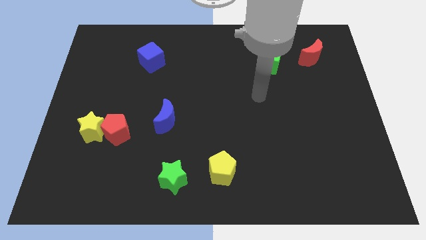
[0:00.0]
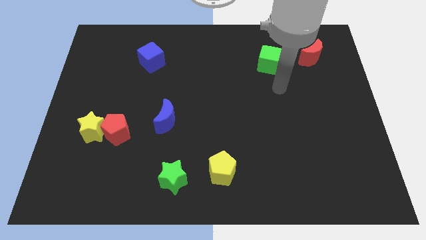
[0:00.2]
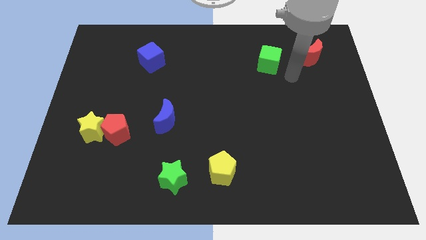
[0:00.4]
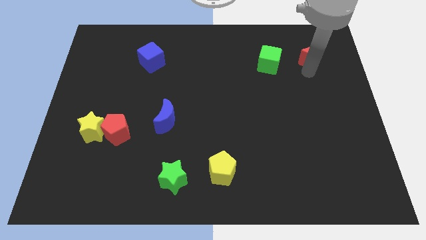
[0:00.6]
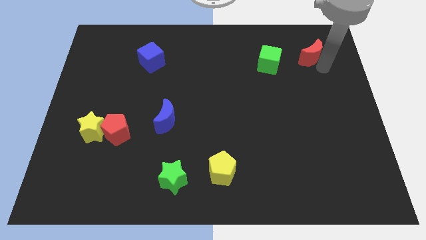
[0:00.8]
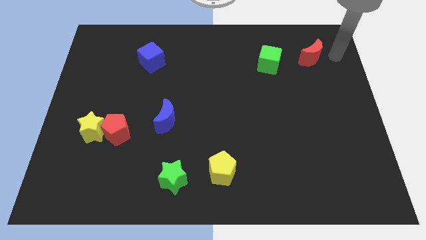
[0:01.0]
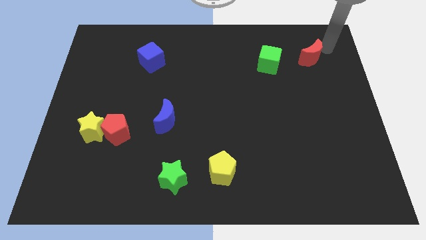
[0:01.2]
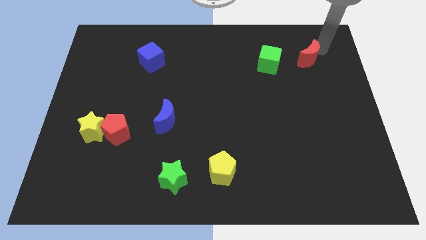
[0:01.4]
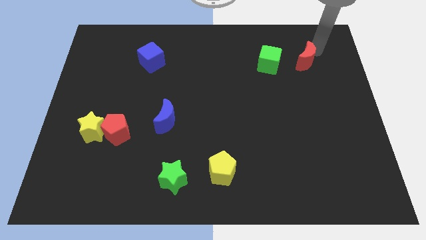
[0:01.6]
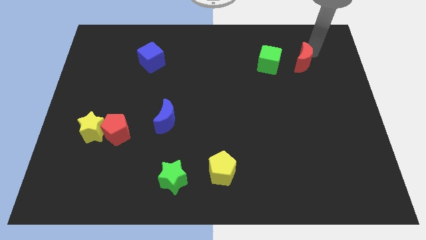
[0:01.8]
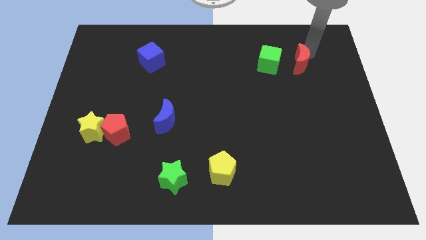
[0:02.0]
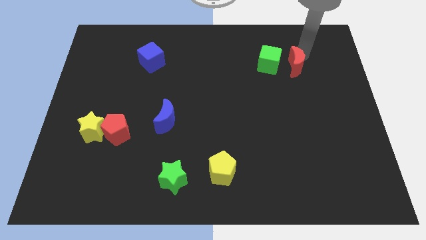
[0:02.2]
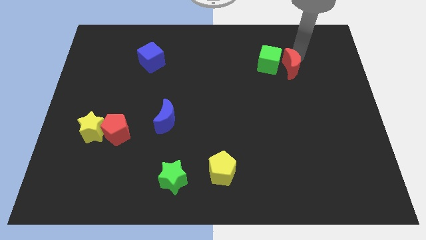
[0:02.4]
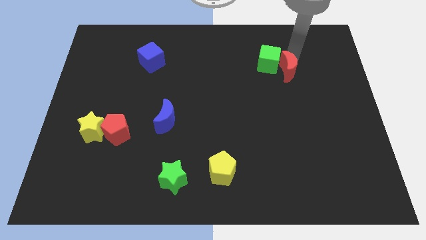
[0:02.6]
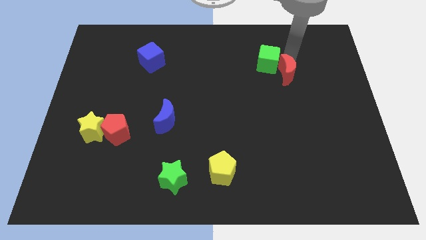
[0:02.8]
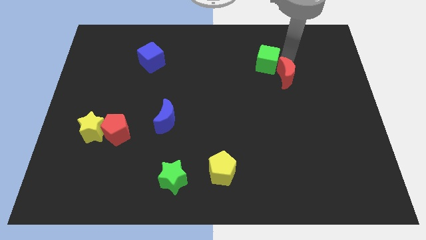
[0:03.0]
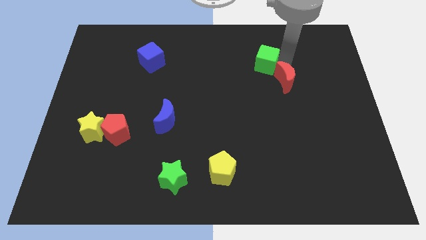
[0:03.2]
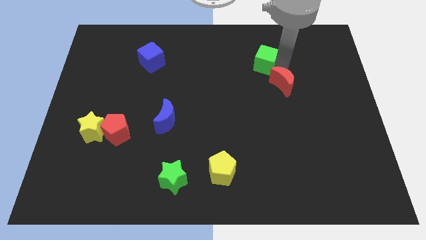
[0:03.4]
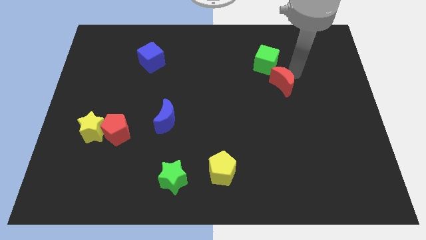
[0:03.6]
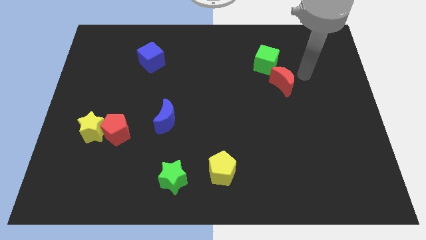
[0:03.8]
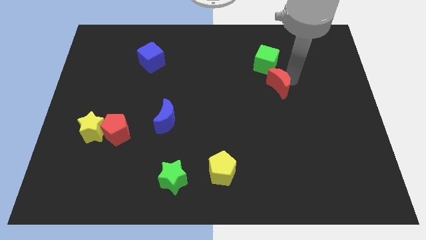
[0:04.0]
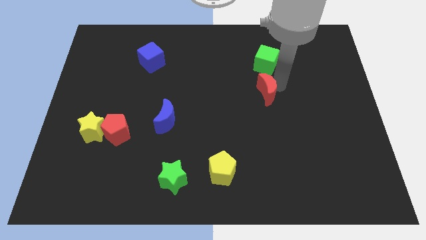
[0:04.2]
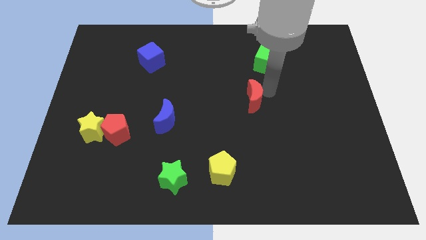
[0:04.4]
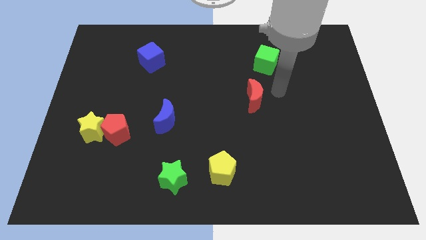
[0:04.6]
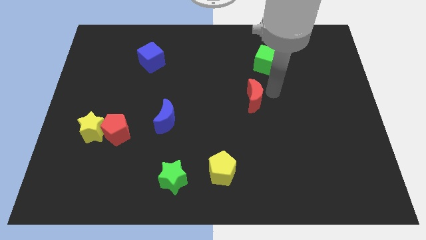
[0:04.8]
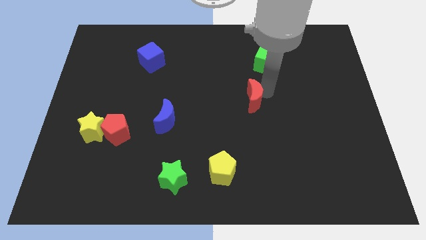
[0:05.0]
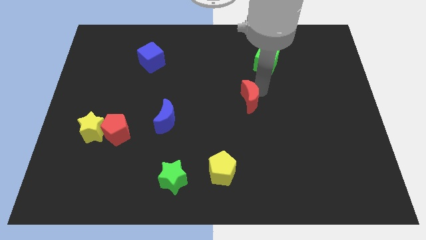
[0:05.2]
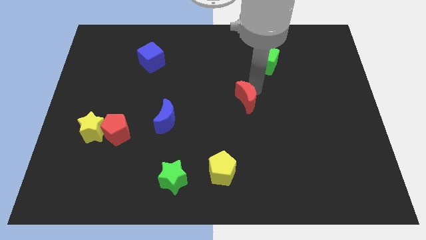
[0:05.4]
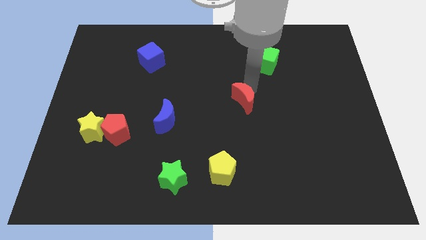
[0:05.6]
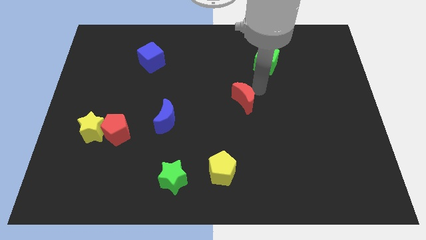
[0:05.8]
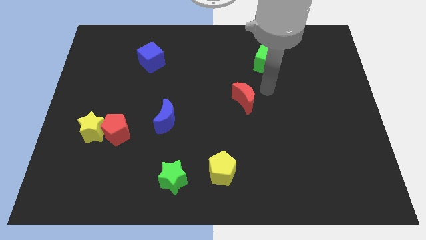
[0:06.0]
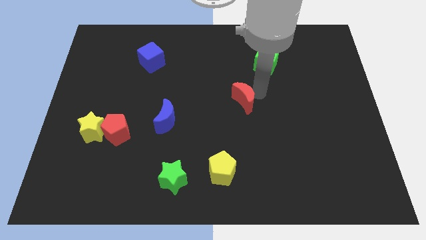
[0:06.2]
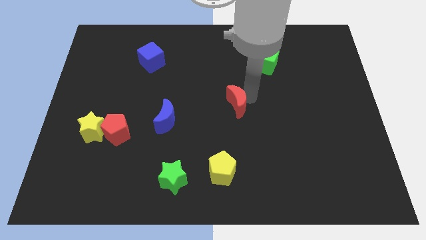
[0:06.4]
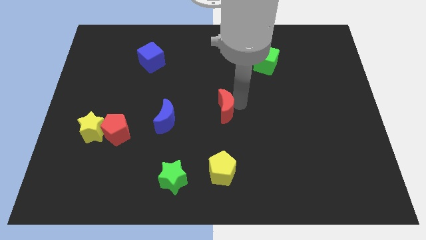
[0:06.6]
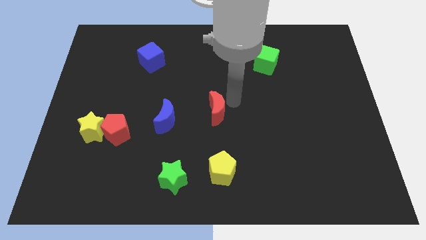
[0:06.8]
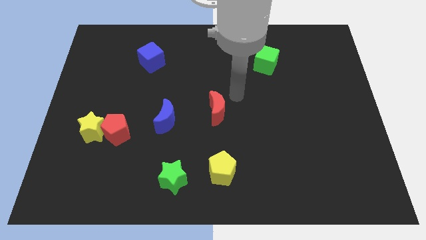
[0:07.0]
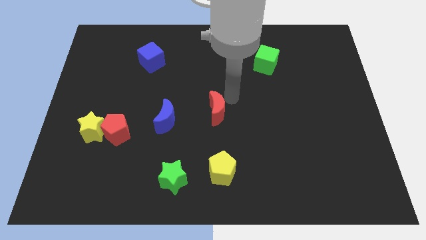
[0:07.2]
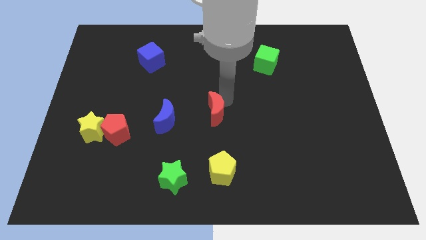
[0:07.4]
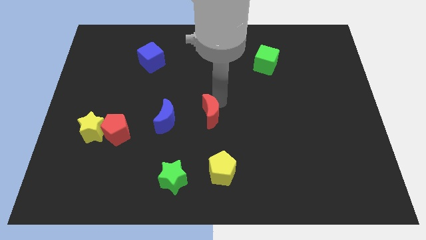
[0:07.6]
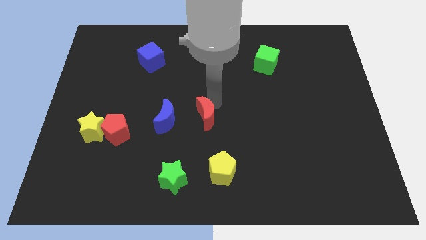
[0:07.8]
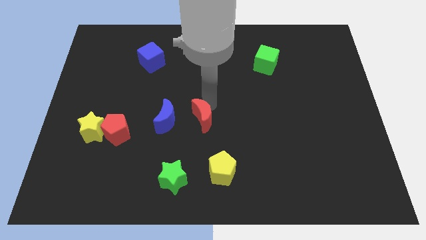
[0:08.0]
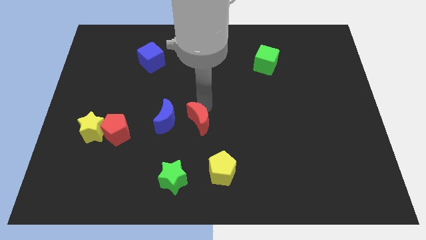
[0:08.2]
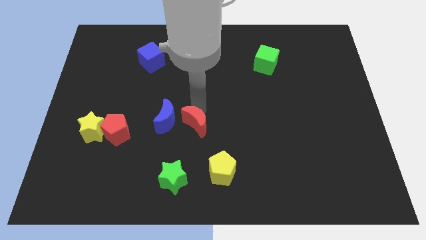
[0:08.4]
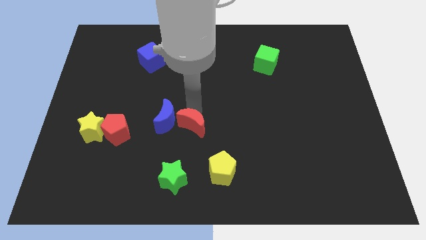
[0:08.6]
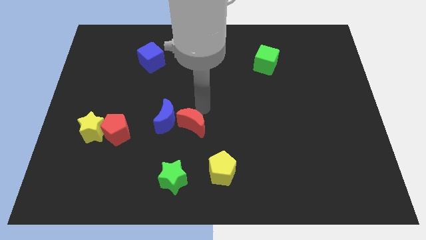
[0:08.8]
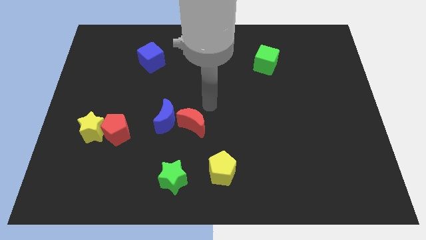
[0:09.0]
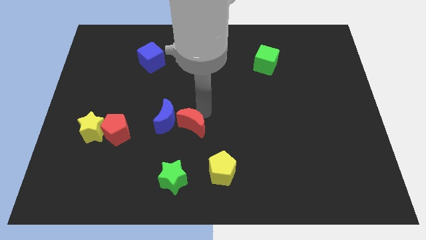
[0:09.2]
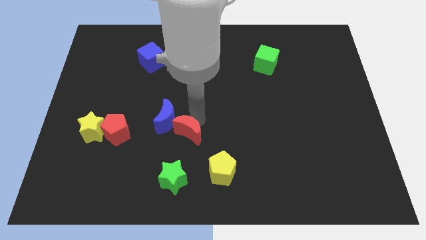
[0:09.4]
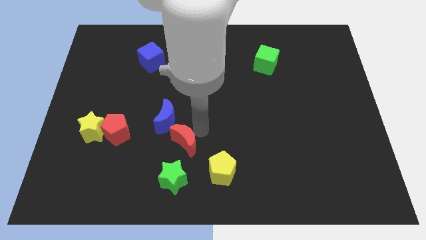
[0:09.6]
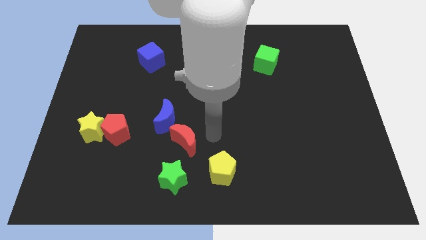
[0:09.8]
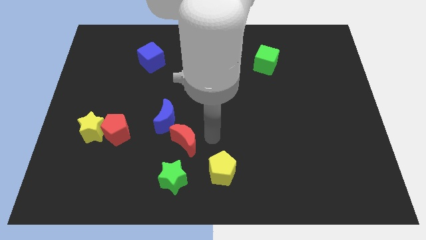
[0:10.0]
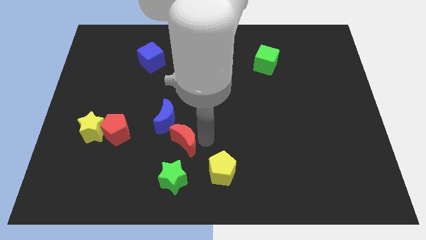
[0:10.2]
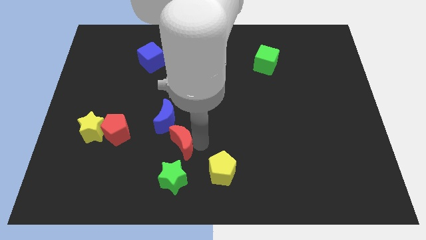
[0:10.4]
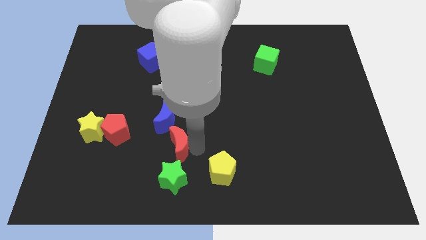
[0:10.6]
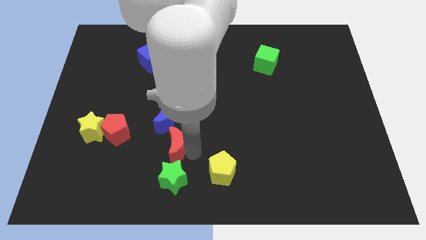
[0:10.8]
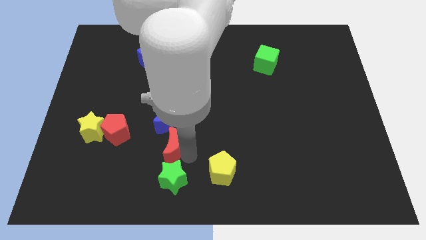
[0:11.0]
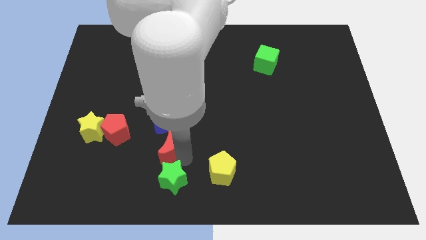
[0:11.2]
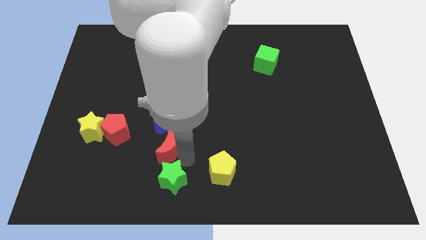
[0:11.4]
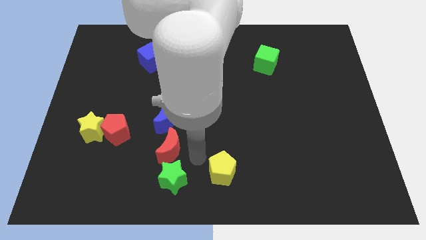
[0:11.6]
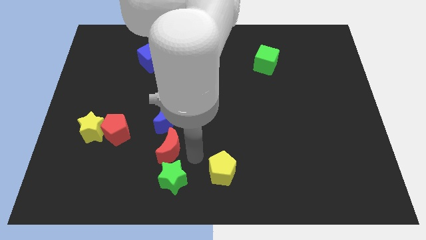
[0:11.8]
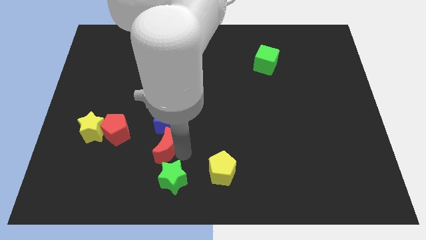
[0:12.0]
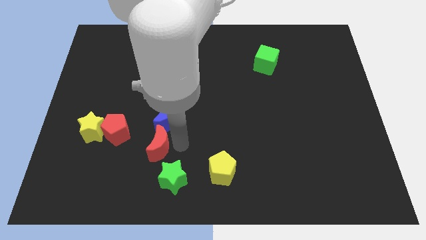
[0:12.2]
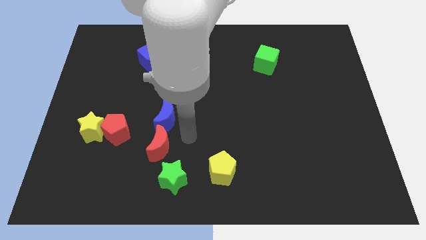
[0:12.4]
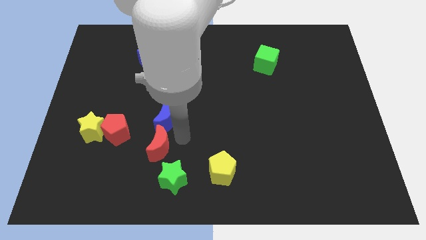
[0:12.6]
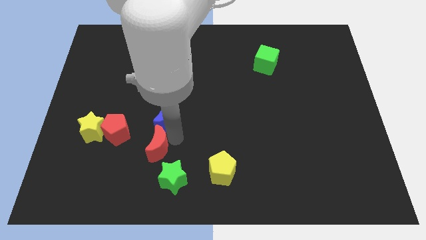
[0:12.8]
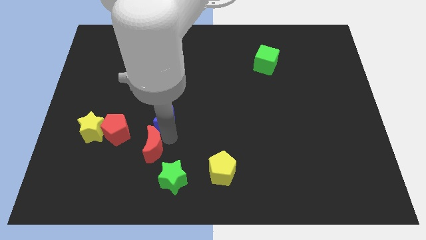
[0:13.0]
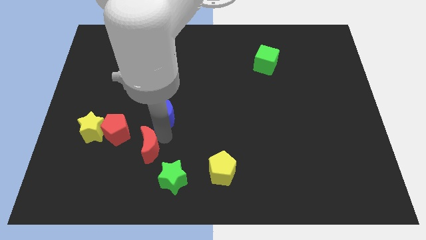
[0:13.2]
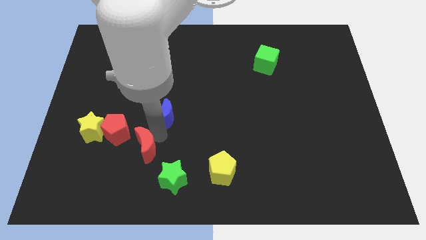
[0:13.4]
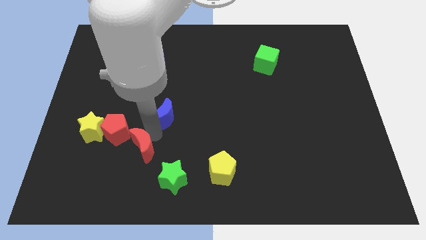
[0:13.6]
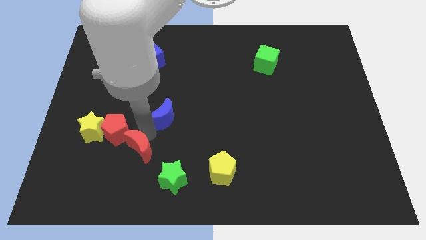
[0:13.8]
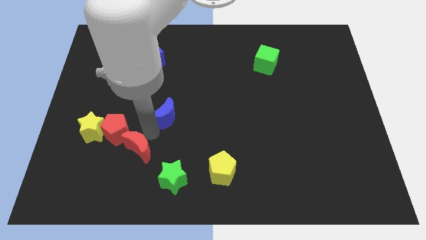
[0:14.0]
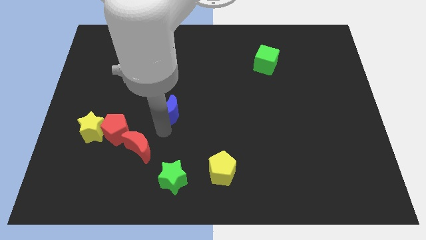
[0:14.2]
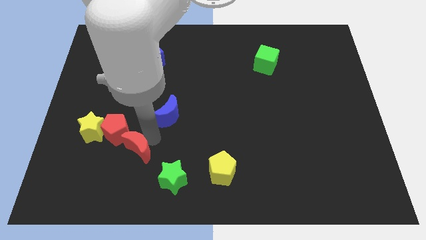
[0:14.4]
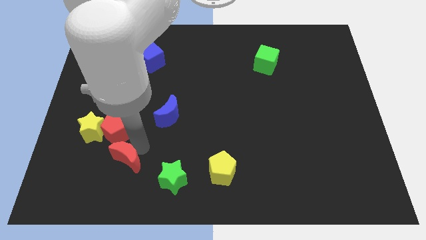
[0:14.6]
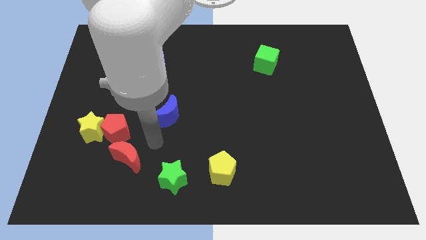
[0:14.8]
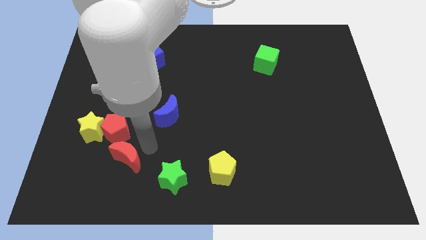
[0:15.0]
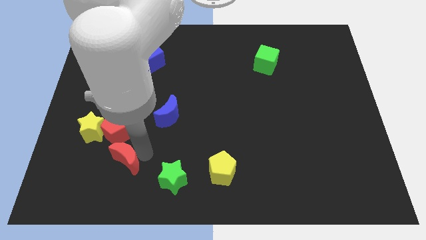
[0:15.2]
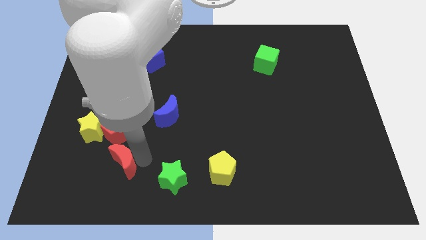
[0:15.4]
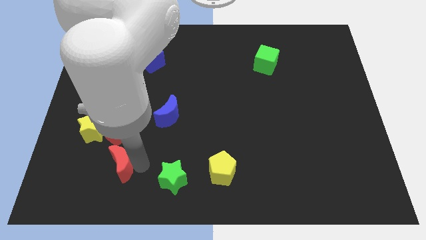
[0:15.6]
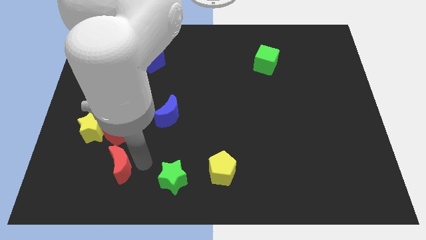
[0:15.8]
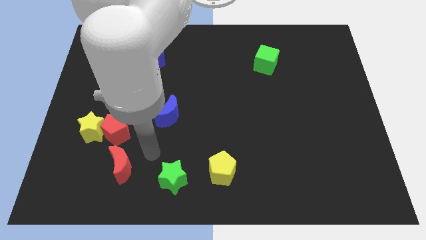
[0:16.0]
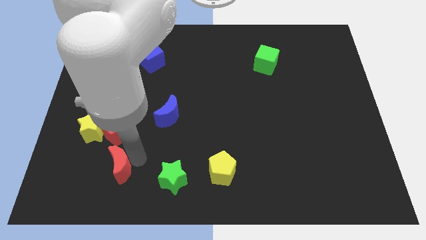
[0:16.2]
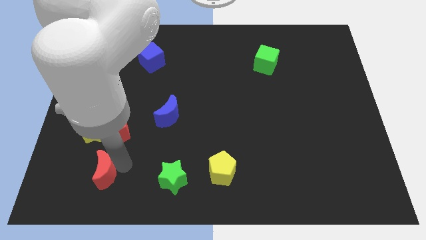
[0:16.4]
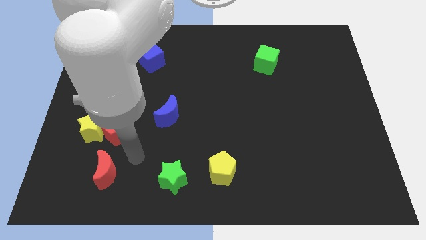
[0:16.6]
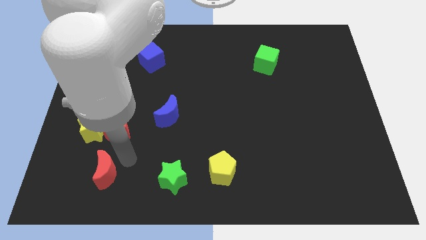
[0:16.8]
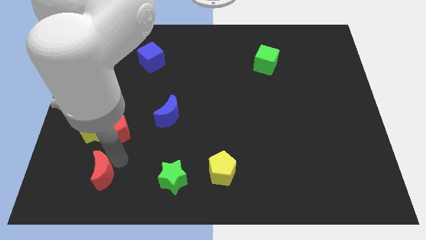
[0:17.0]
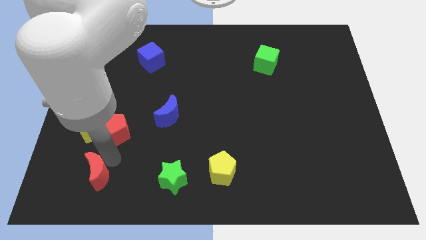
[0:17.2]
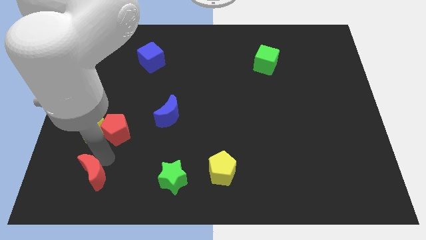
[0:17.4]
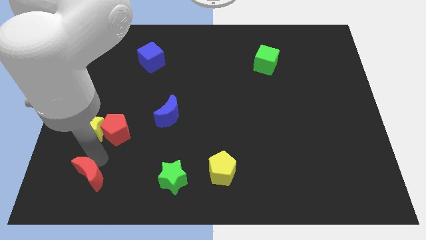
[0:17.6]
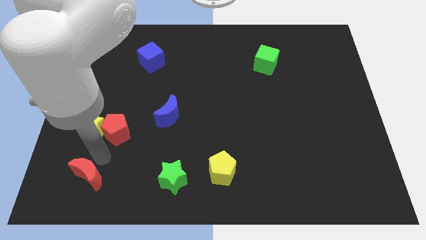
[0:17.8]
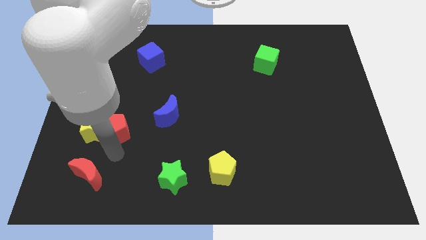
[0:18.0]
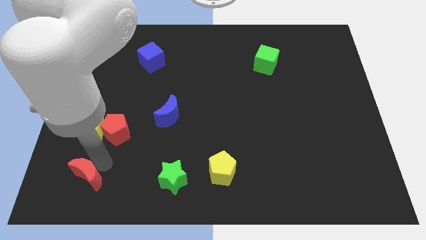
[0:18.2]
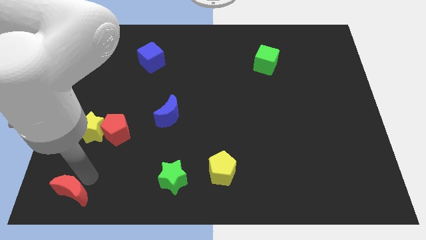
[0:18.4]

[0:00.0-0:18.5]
slide the red moon to the lower left corner
